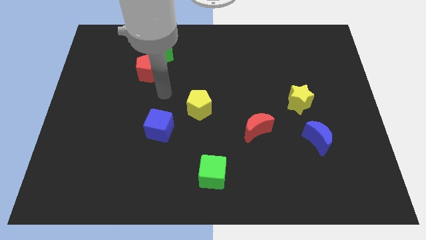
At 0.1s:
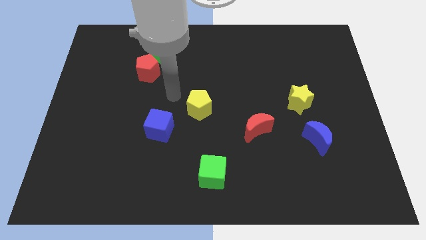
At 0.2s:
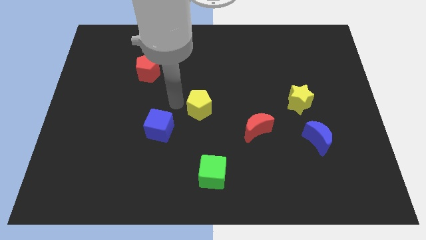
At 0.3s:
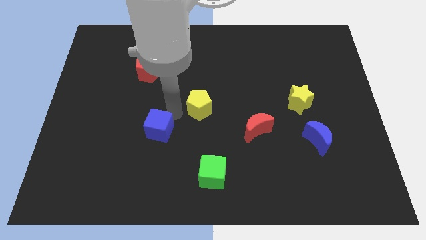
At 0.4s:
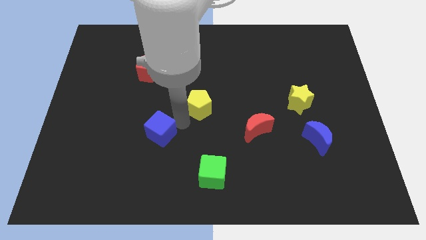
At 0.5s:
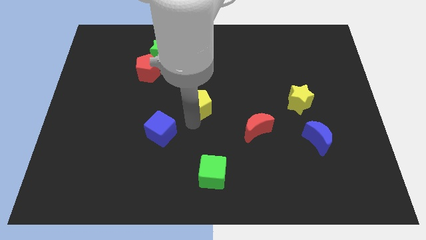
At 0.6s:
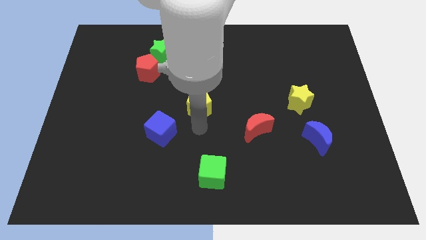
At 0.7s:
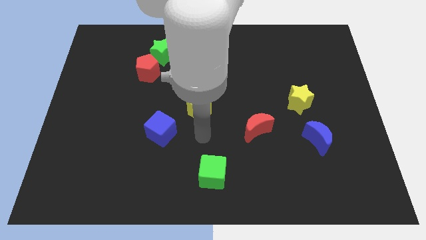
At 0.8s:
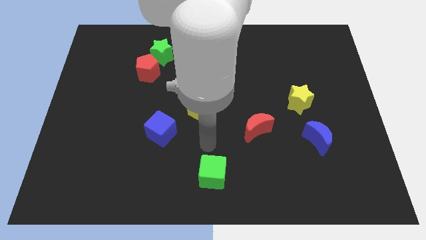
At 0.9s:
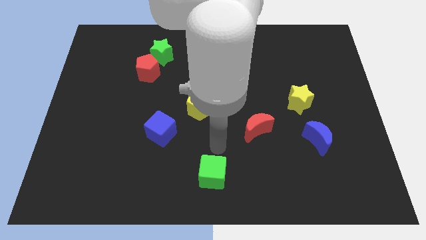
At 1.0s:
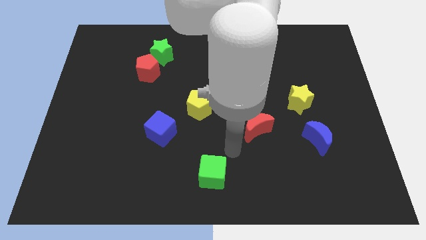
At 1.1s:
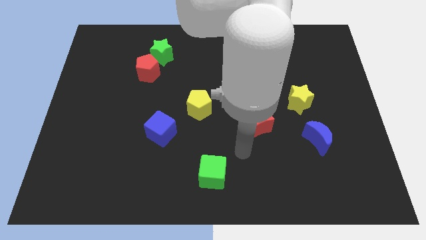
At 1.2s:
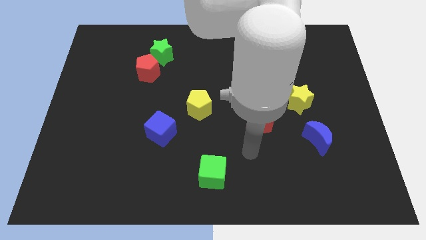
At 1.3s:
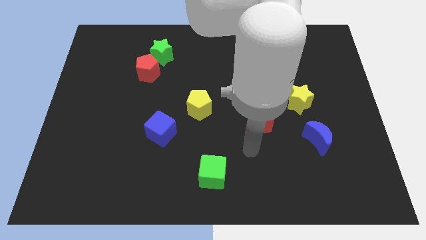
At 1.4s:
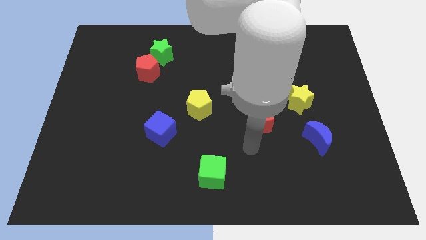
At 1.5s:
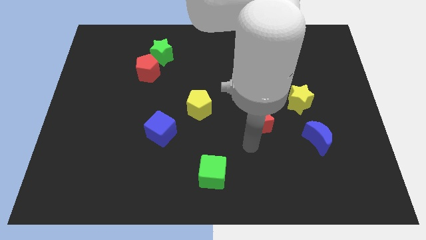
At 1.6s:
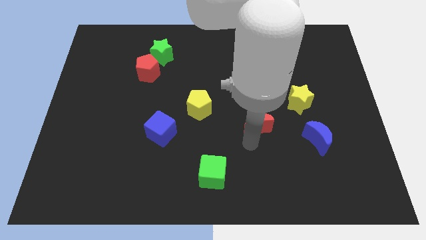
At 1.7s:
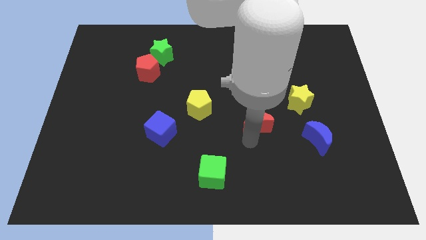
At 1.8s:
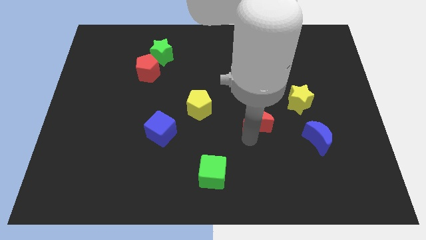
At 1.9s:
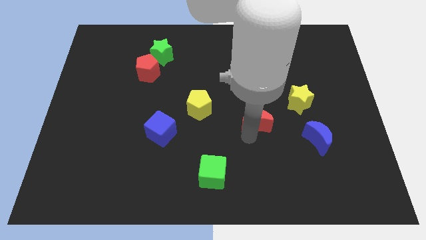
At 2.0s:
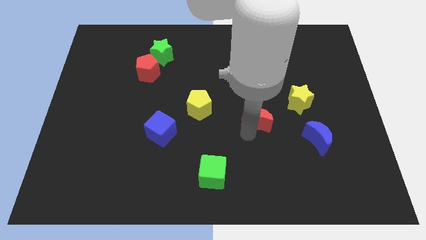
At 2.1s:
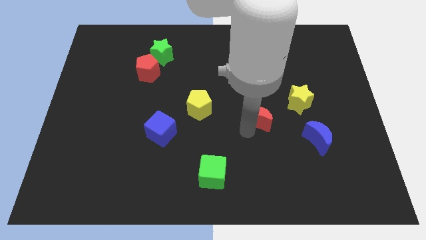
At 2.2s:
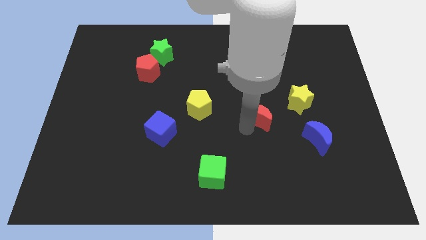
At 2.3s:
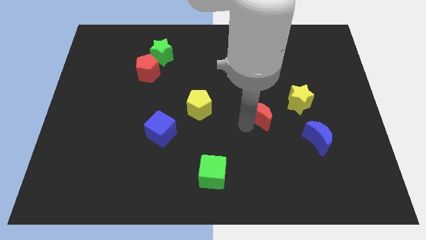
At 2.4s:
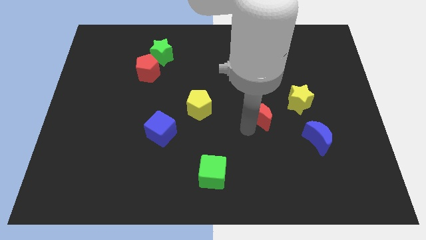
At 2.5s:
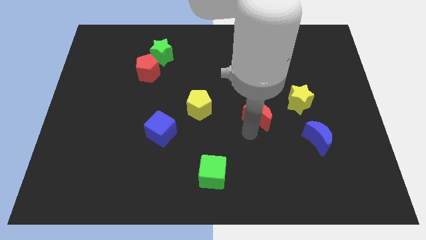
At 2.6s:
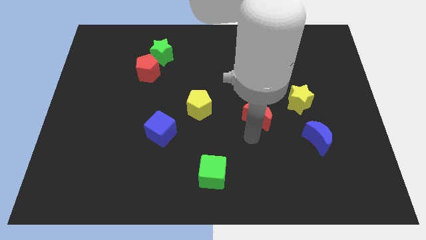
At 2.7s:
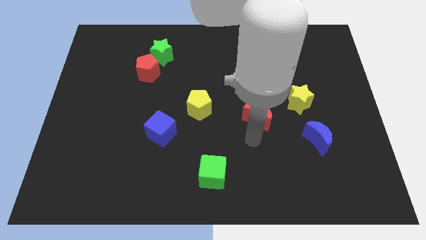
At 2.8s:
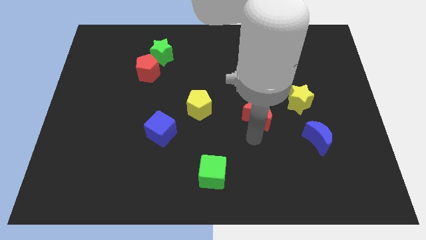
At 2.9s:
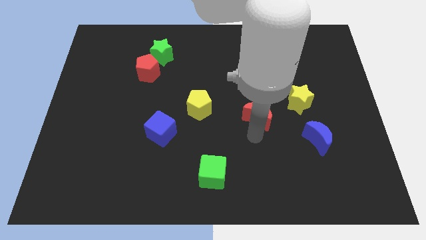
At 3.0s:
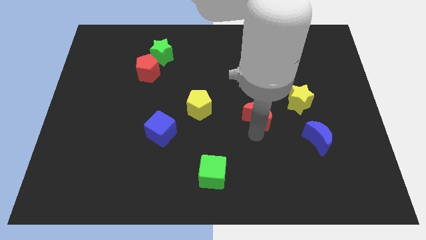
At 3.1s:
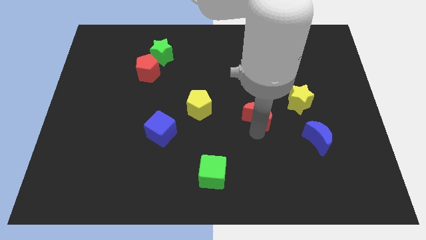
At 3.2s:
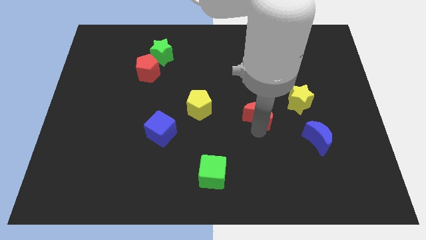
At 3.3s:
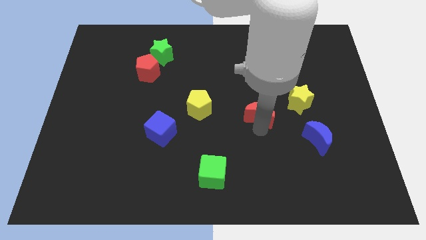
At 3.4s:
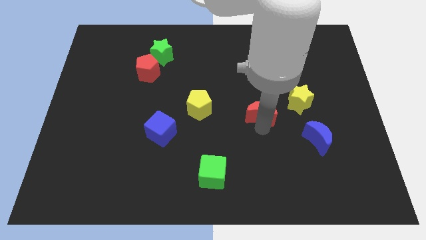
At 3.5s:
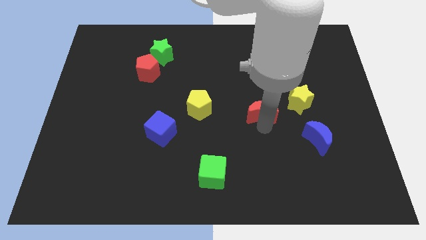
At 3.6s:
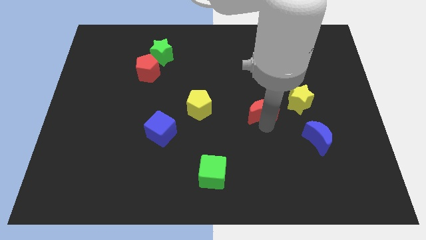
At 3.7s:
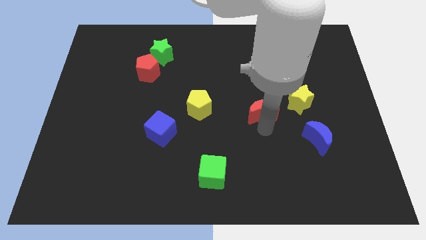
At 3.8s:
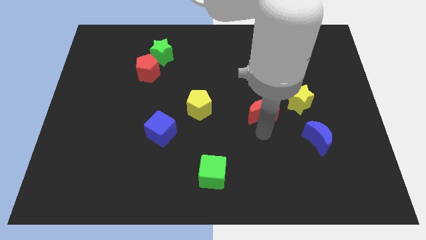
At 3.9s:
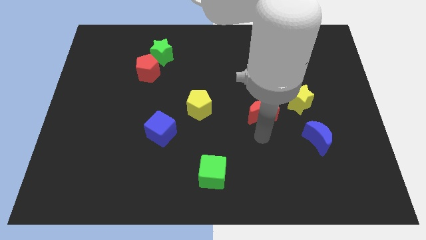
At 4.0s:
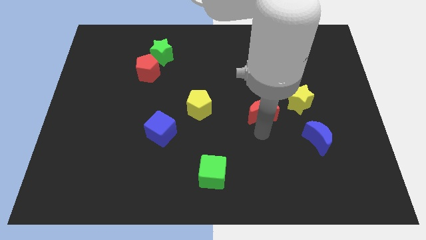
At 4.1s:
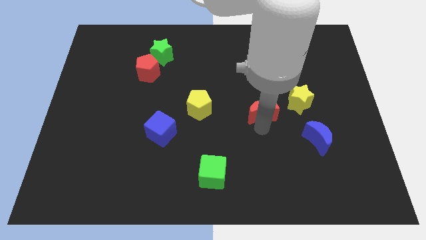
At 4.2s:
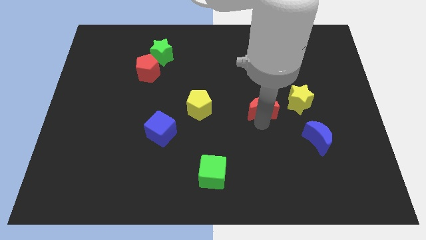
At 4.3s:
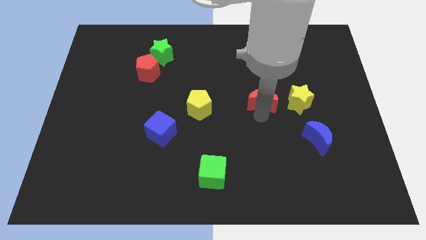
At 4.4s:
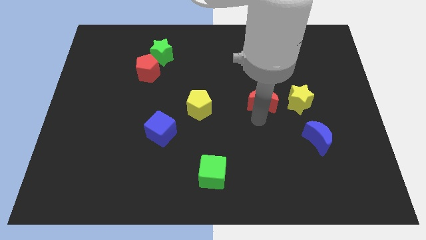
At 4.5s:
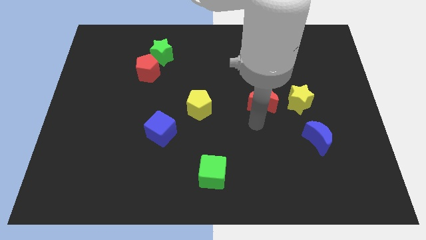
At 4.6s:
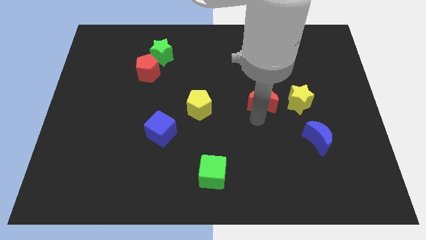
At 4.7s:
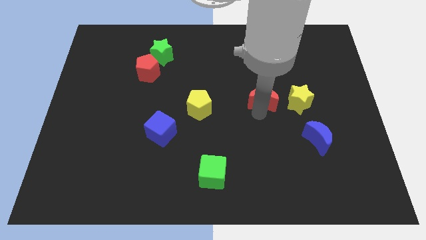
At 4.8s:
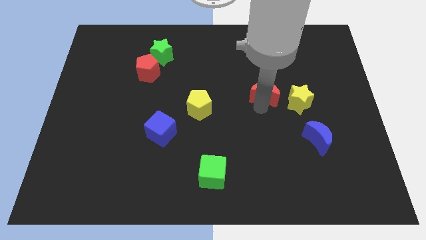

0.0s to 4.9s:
push the red moon a little upwards and to the right

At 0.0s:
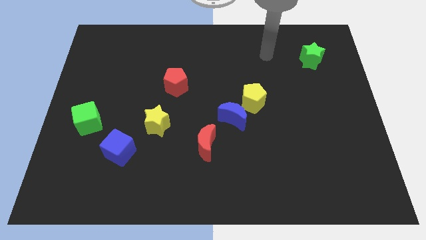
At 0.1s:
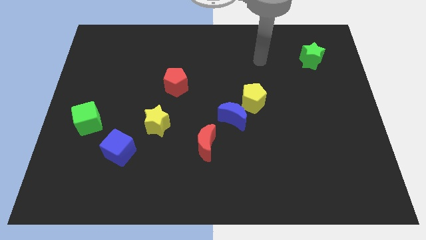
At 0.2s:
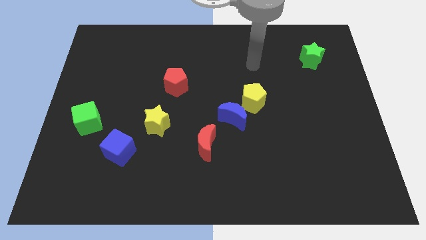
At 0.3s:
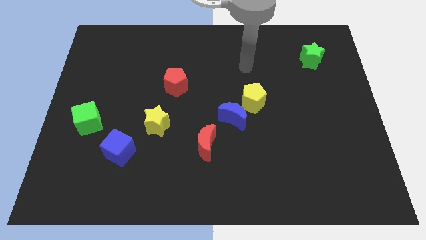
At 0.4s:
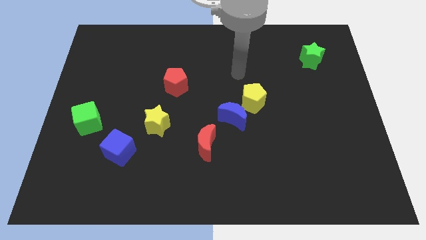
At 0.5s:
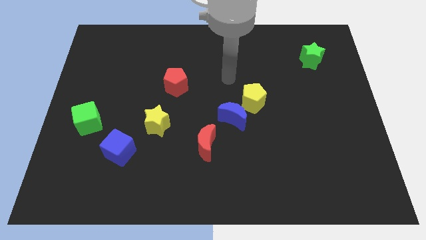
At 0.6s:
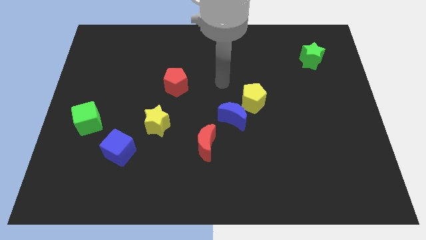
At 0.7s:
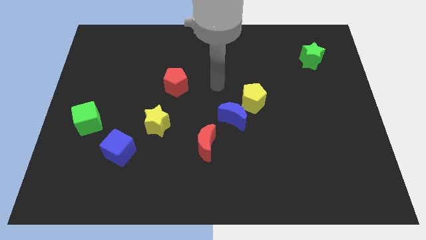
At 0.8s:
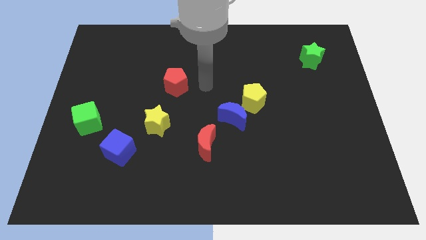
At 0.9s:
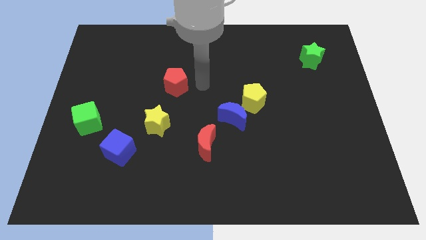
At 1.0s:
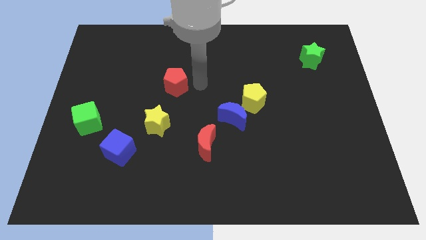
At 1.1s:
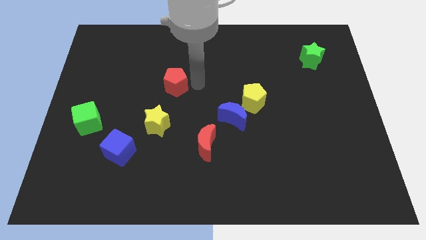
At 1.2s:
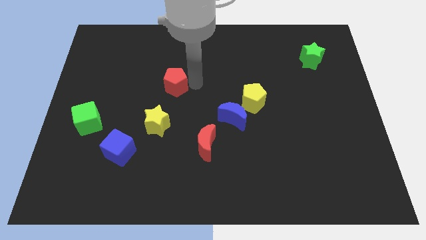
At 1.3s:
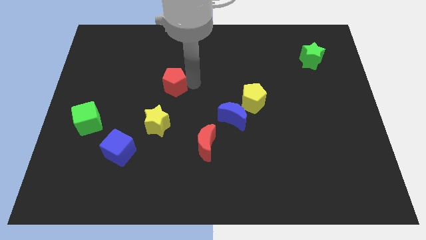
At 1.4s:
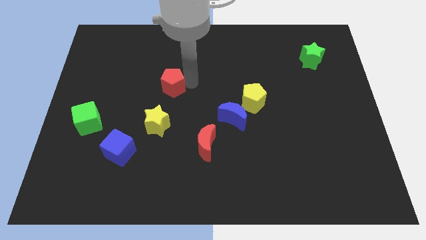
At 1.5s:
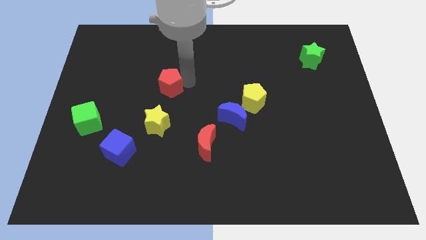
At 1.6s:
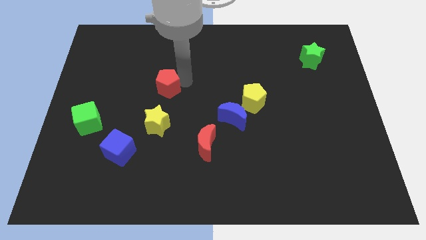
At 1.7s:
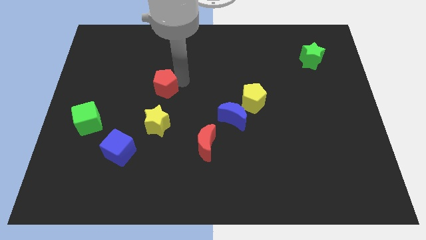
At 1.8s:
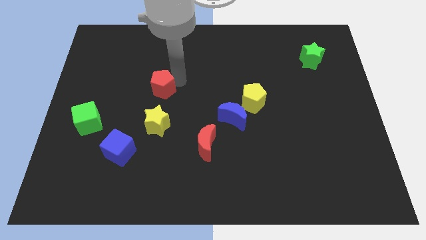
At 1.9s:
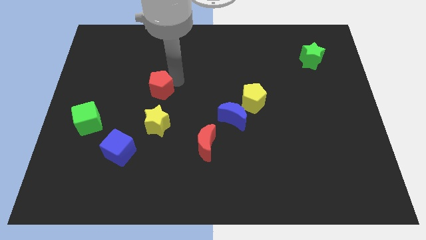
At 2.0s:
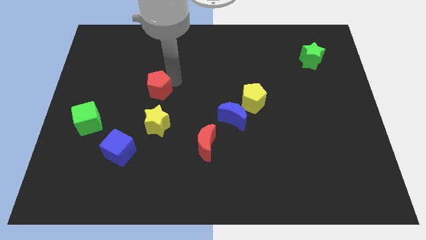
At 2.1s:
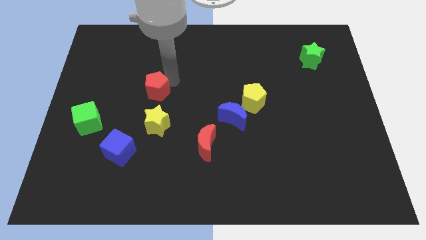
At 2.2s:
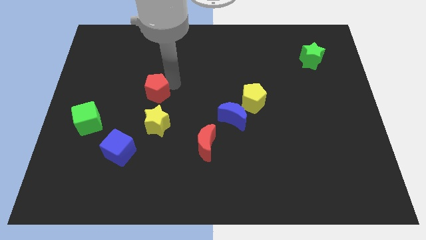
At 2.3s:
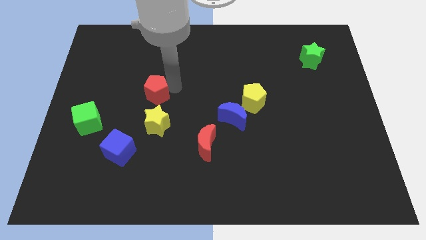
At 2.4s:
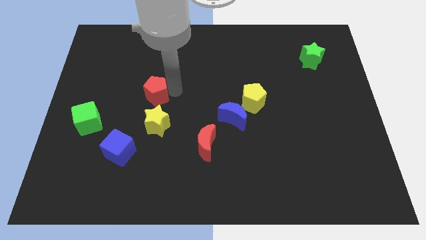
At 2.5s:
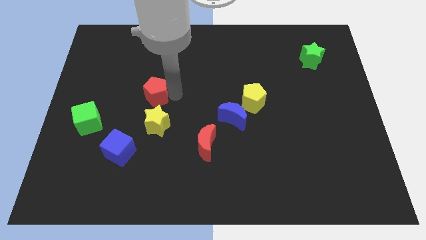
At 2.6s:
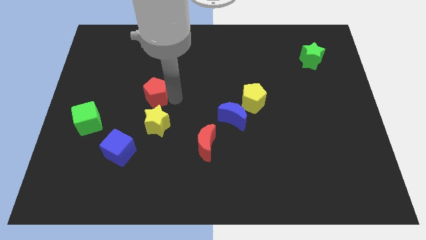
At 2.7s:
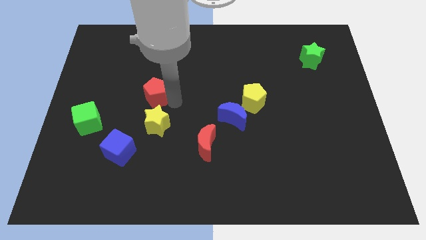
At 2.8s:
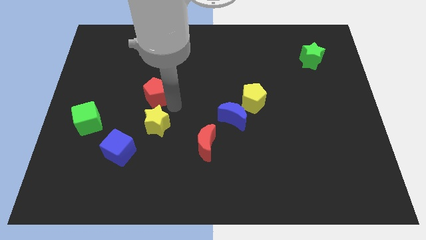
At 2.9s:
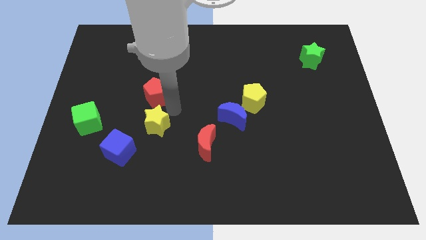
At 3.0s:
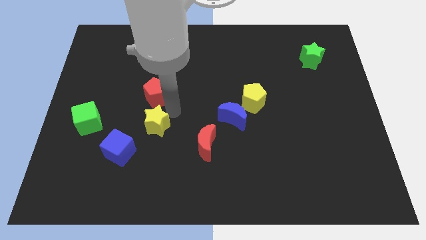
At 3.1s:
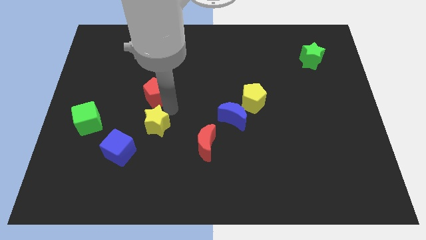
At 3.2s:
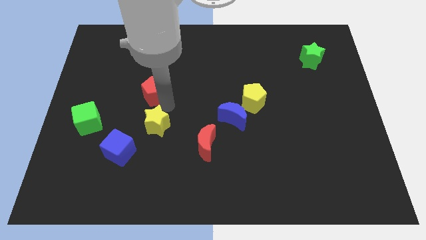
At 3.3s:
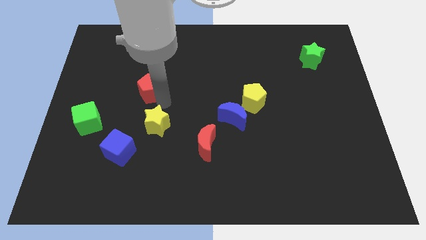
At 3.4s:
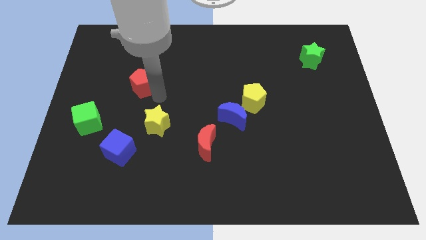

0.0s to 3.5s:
push the red pentagon to the left a little
